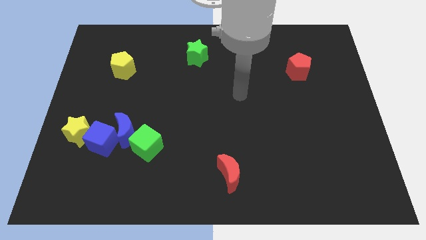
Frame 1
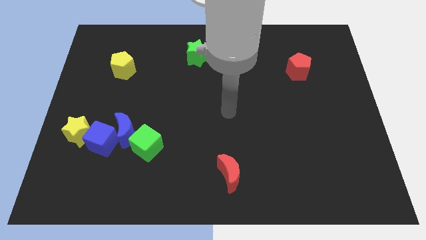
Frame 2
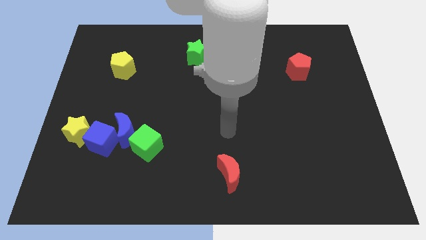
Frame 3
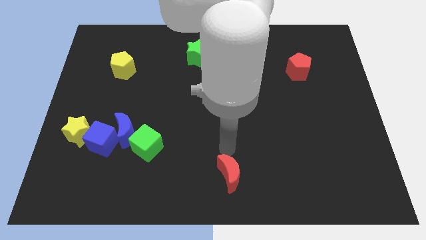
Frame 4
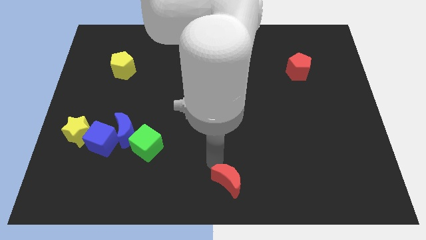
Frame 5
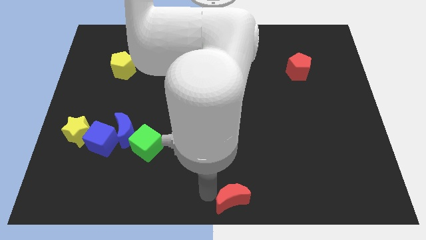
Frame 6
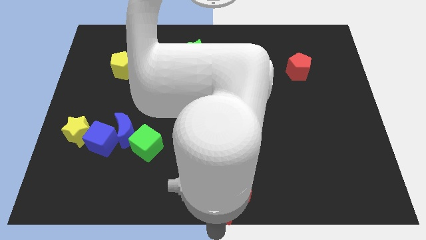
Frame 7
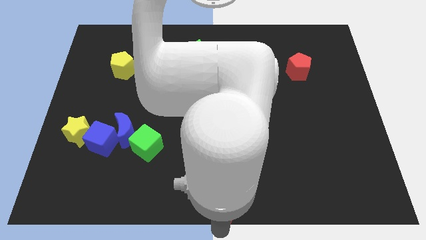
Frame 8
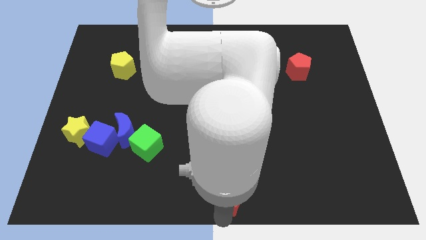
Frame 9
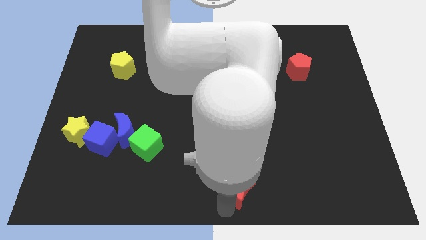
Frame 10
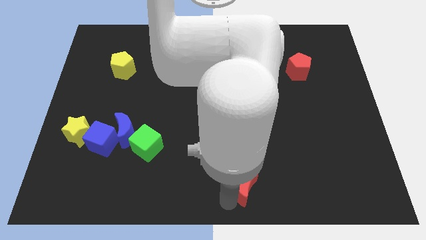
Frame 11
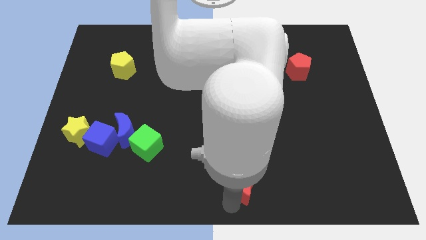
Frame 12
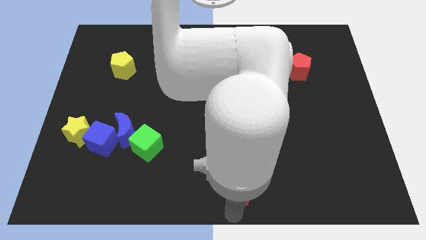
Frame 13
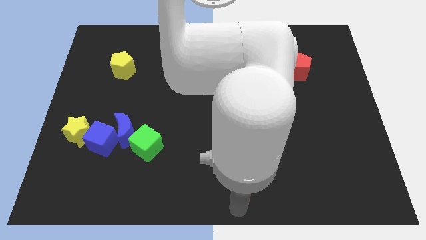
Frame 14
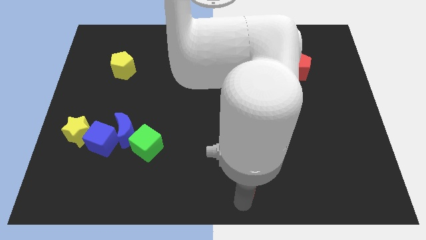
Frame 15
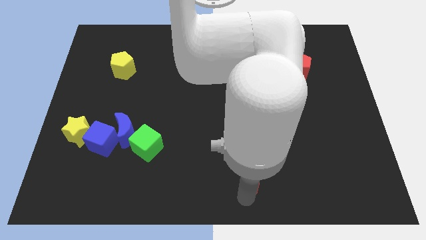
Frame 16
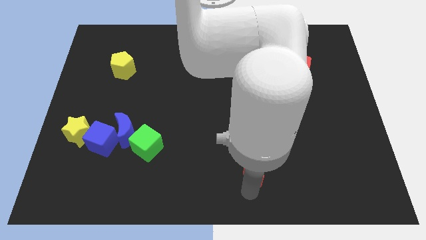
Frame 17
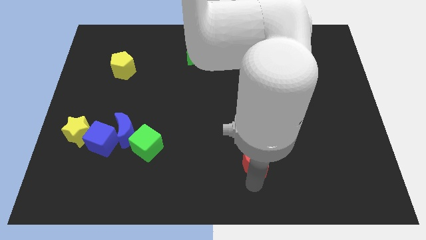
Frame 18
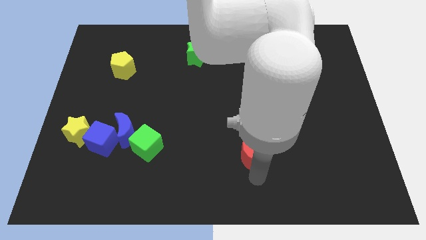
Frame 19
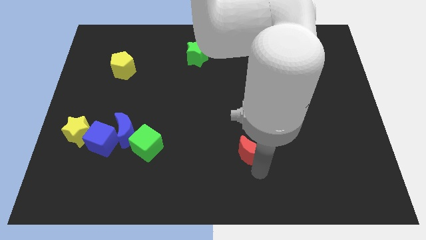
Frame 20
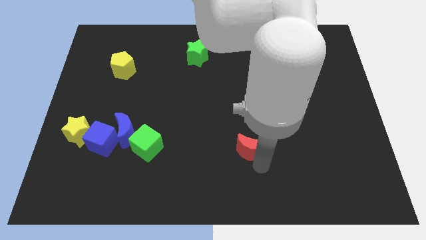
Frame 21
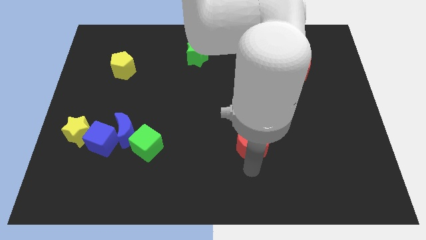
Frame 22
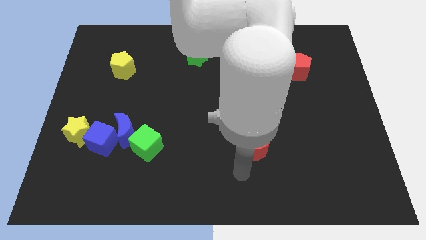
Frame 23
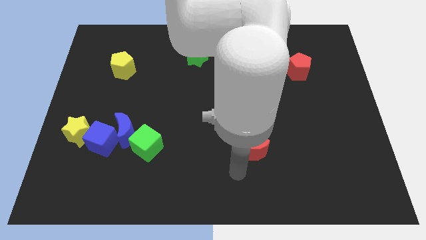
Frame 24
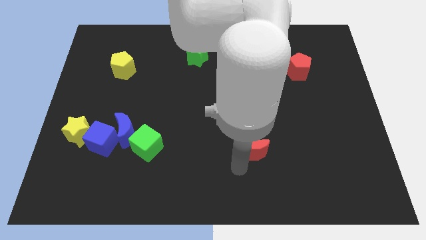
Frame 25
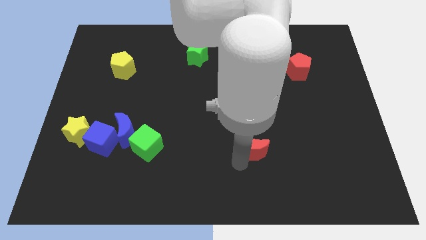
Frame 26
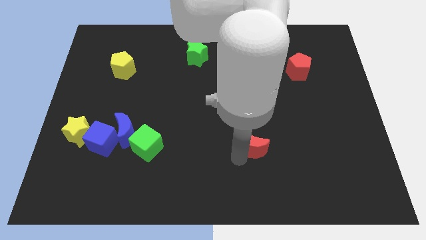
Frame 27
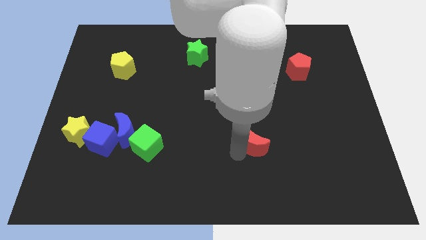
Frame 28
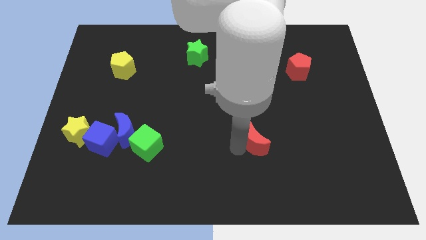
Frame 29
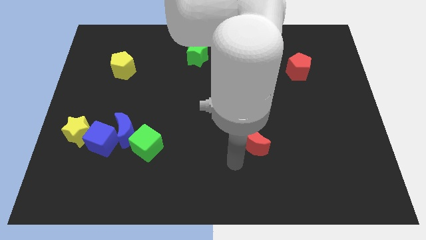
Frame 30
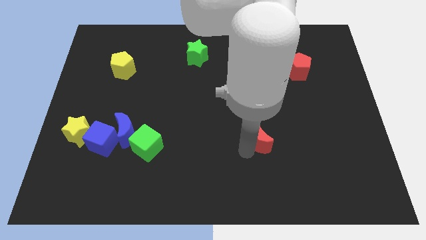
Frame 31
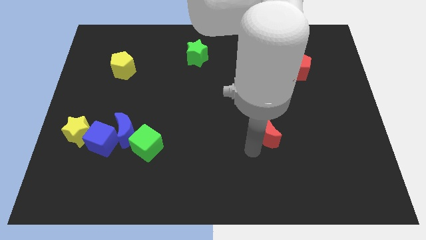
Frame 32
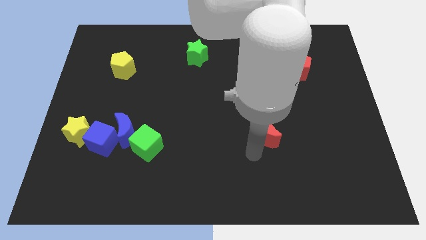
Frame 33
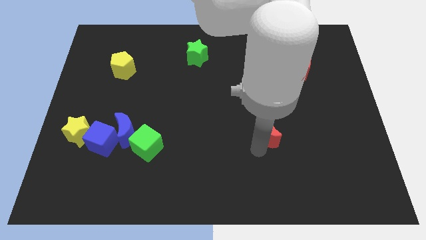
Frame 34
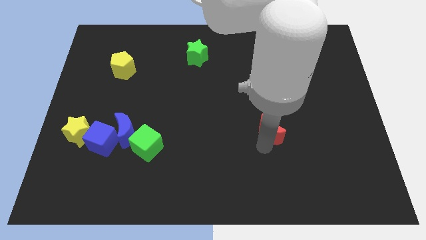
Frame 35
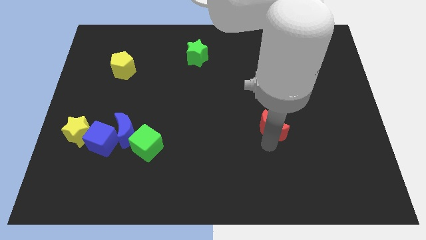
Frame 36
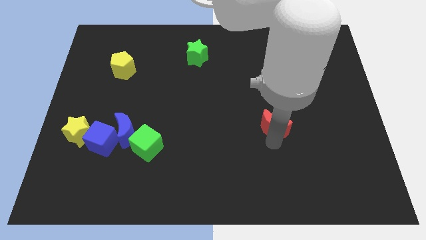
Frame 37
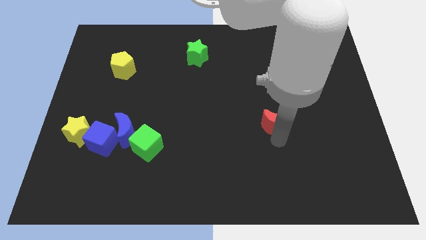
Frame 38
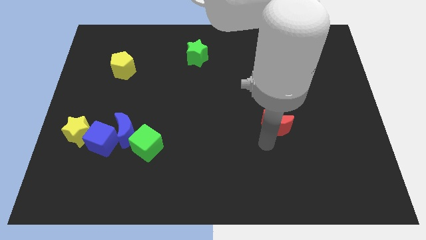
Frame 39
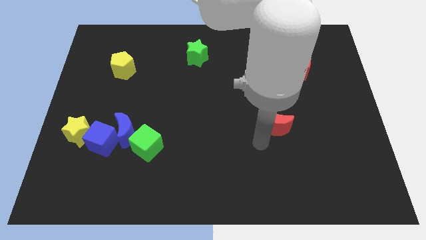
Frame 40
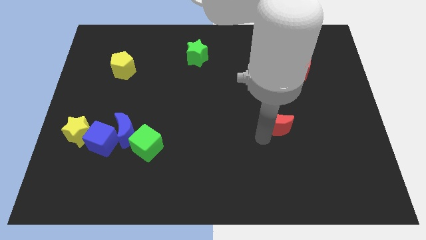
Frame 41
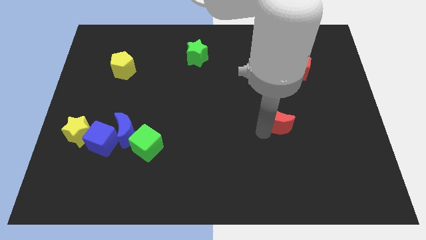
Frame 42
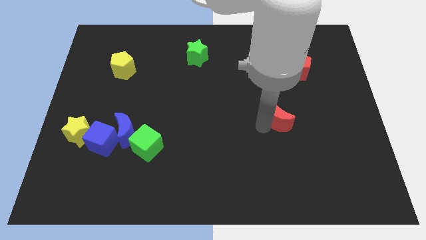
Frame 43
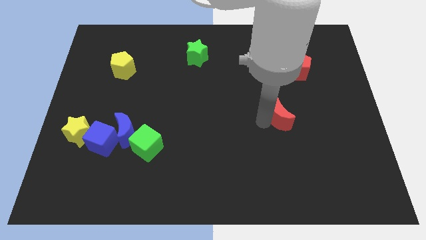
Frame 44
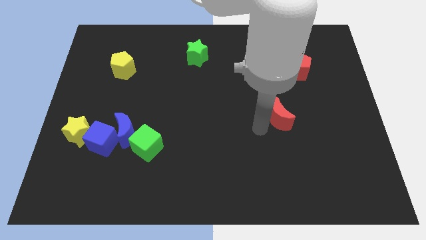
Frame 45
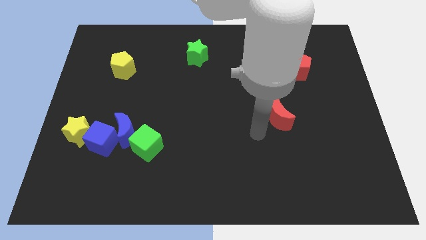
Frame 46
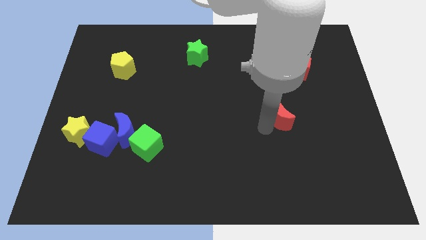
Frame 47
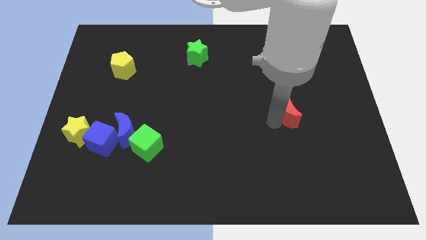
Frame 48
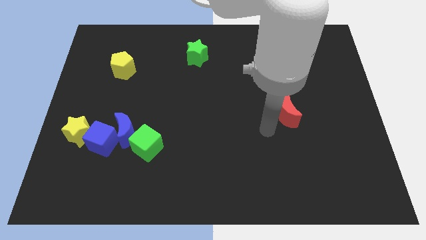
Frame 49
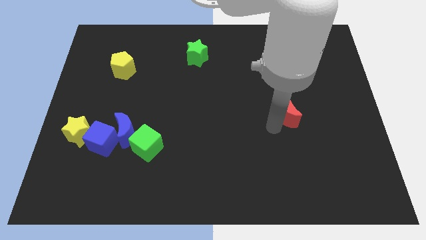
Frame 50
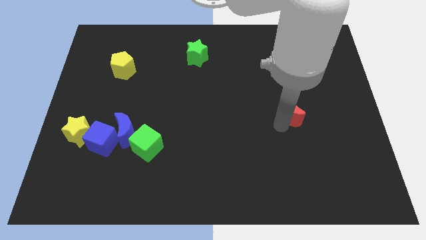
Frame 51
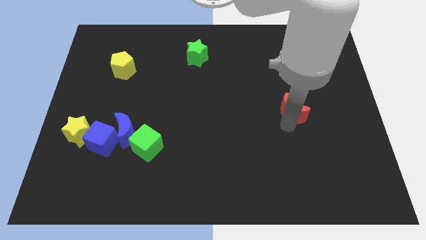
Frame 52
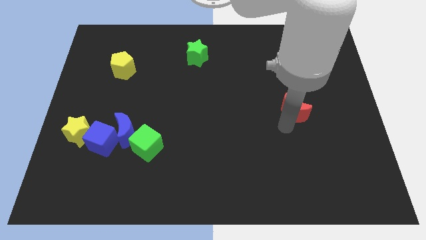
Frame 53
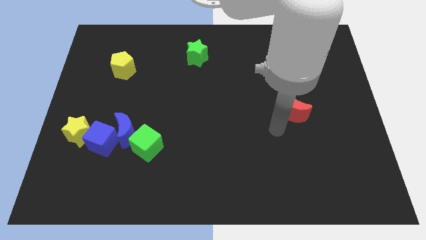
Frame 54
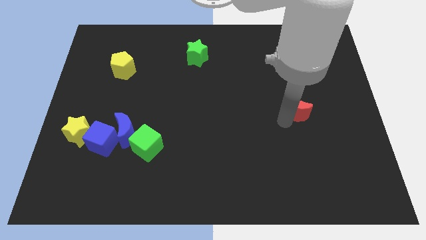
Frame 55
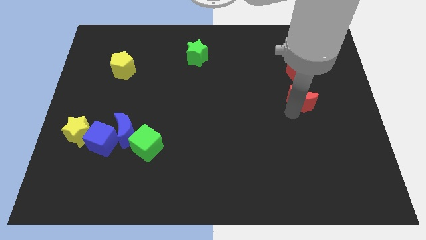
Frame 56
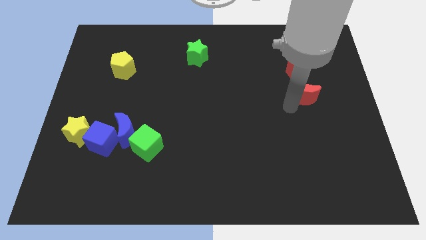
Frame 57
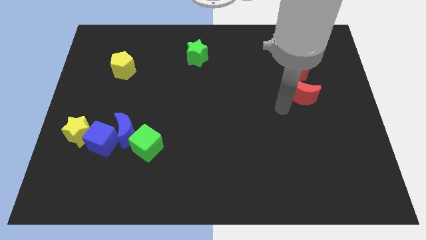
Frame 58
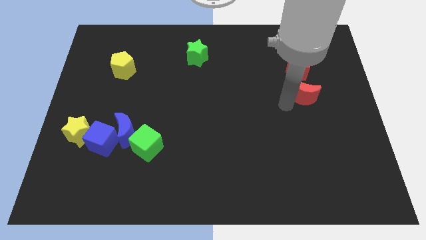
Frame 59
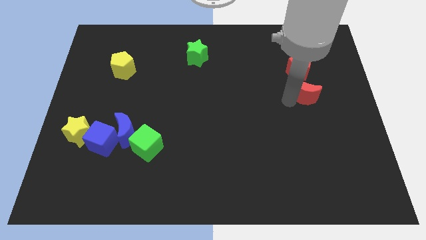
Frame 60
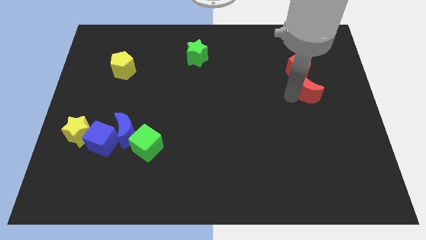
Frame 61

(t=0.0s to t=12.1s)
push the red moon to the bottom right of the red pentagon
